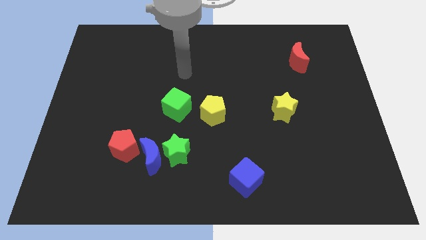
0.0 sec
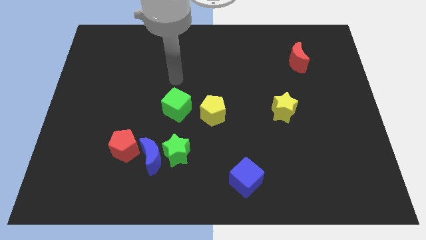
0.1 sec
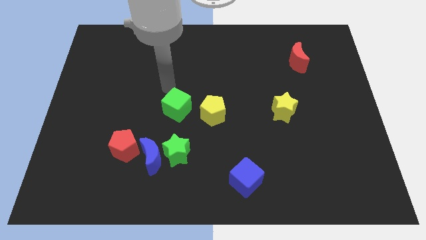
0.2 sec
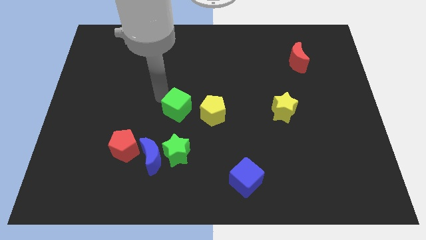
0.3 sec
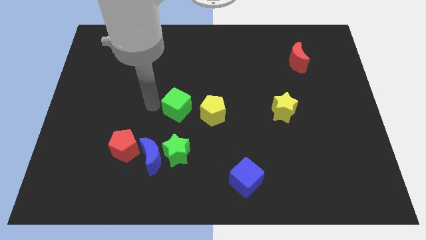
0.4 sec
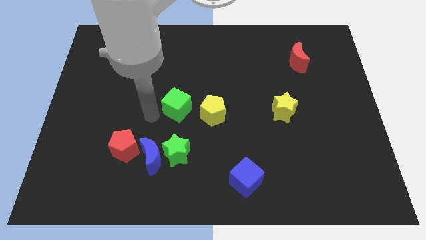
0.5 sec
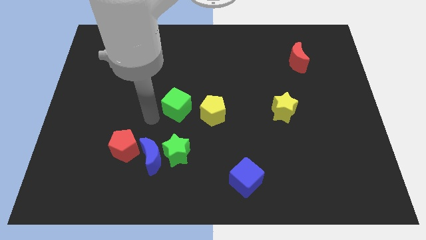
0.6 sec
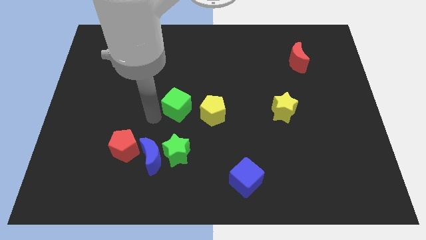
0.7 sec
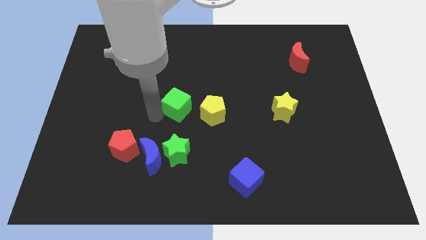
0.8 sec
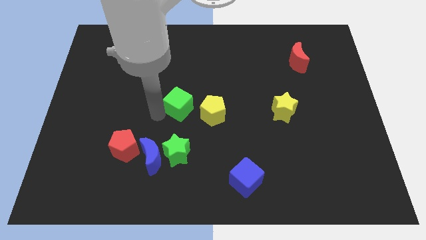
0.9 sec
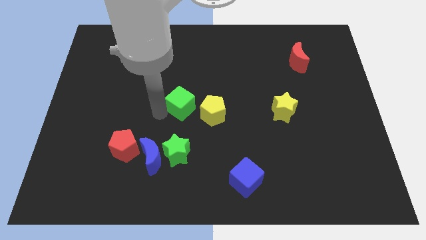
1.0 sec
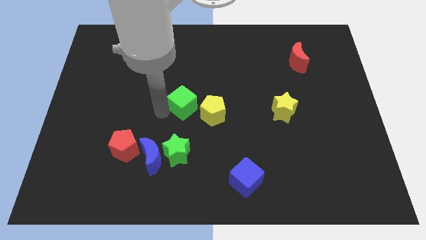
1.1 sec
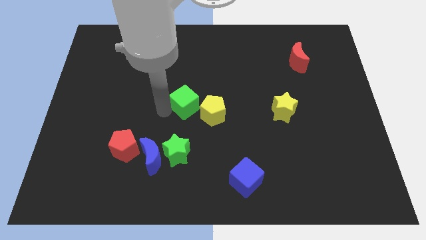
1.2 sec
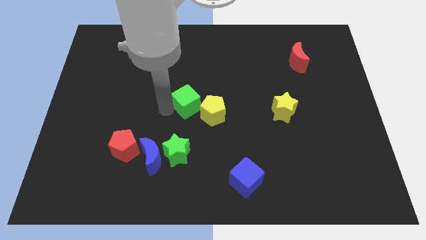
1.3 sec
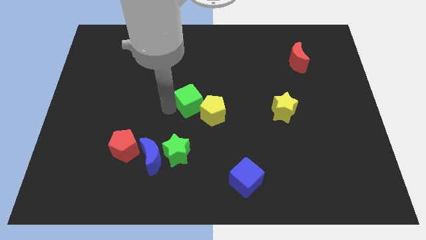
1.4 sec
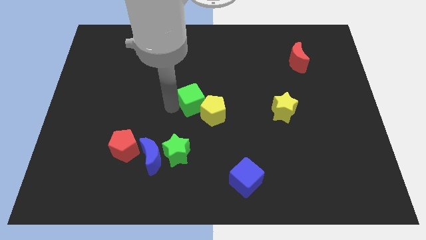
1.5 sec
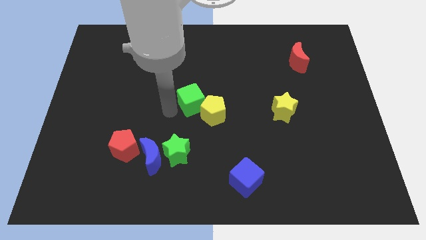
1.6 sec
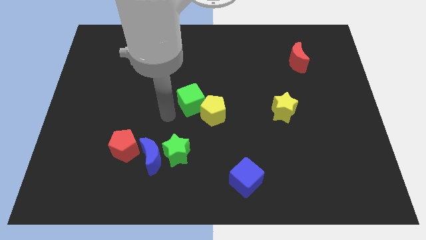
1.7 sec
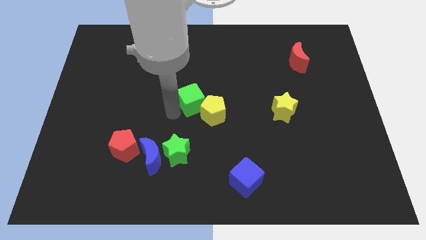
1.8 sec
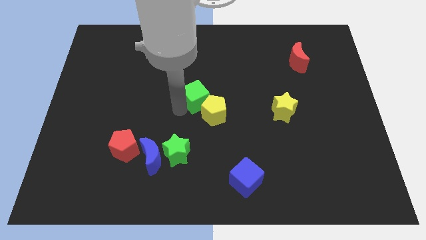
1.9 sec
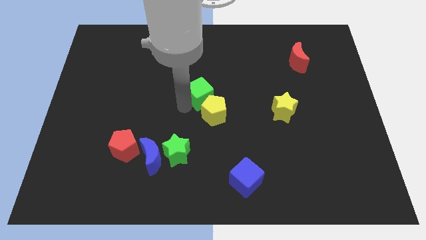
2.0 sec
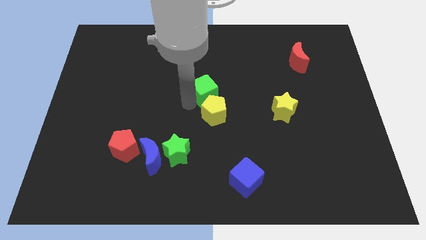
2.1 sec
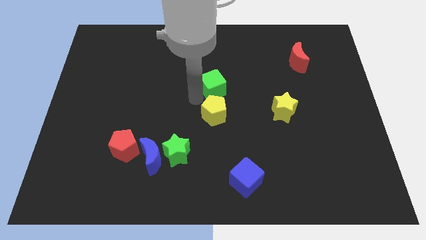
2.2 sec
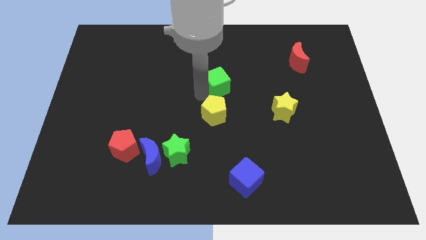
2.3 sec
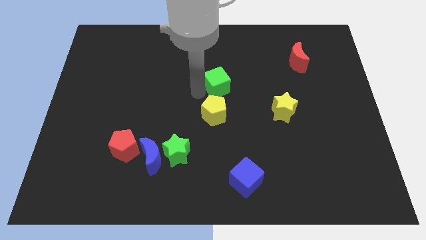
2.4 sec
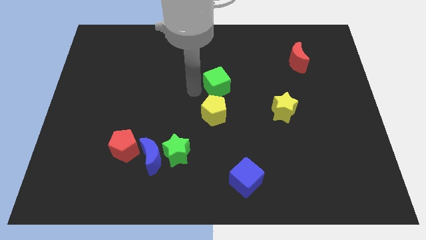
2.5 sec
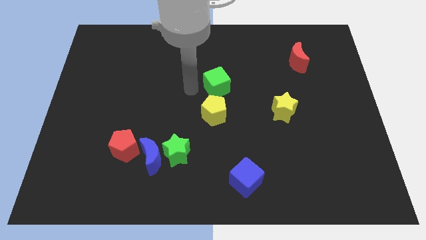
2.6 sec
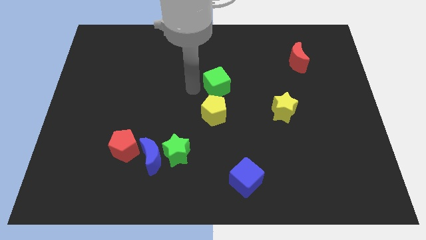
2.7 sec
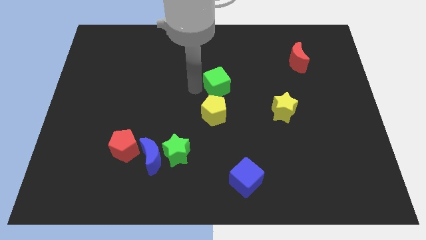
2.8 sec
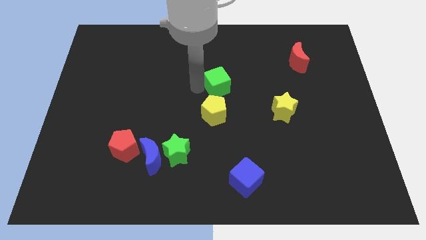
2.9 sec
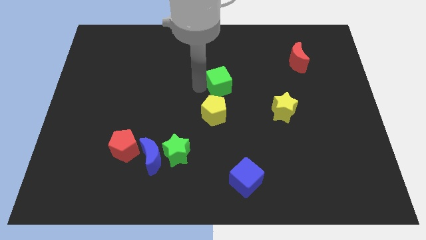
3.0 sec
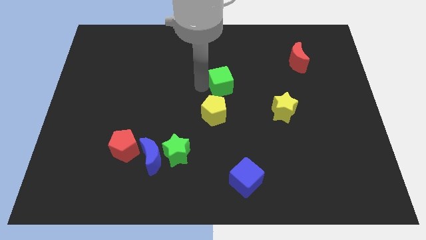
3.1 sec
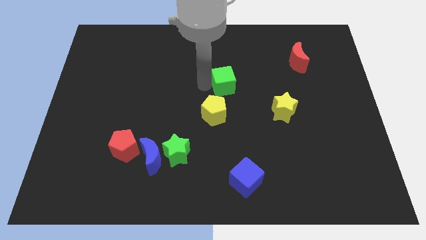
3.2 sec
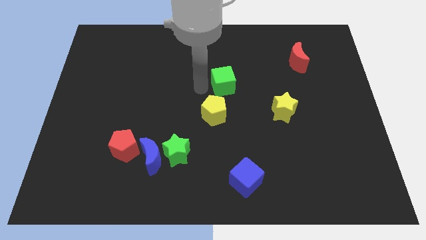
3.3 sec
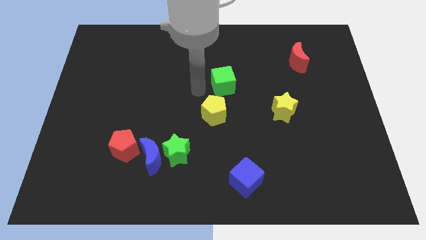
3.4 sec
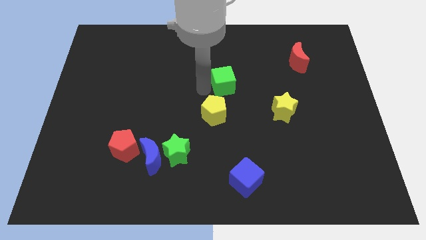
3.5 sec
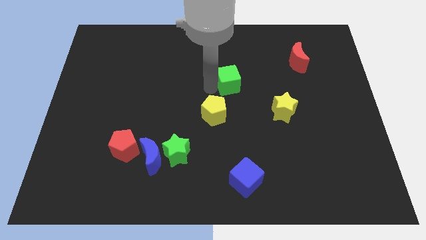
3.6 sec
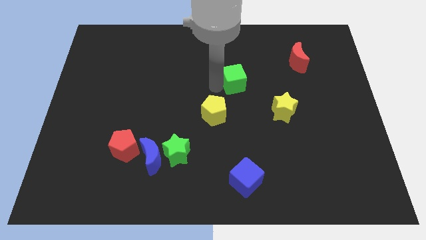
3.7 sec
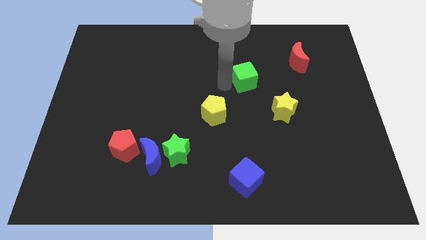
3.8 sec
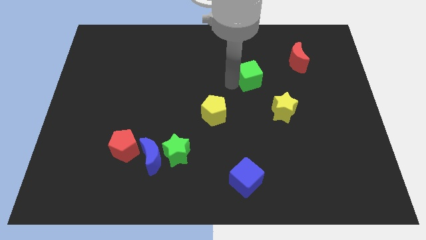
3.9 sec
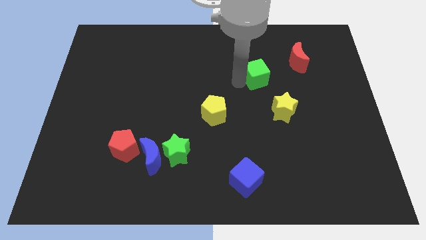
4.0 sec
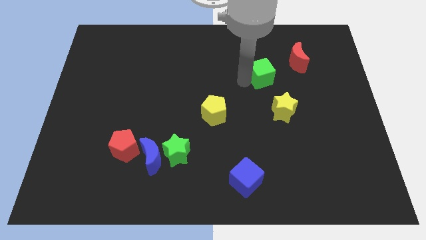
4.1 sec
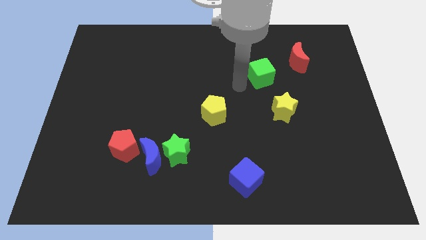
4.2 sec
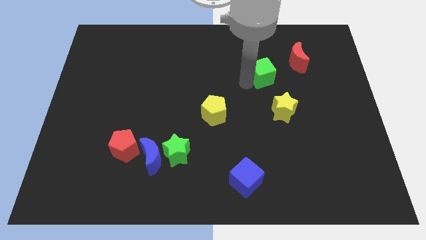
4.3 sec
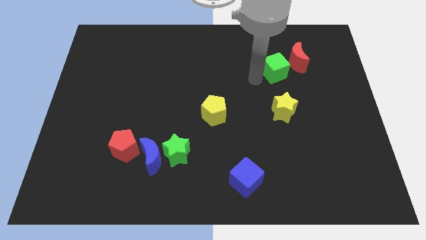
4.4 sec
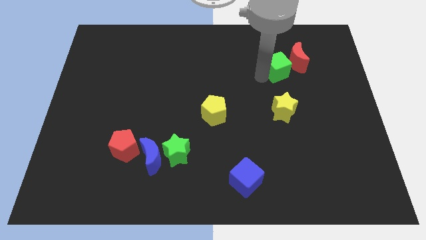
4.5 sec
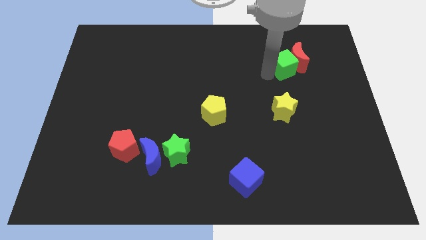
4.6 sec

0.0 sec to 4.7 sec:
slide the green cube next to the red moon

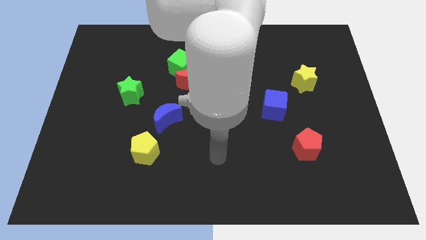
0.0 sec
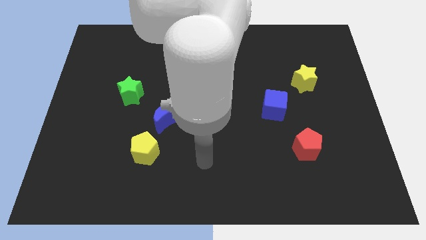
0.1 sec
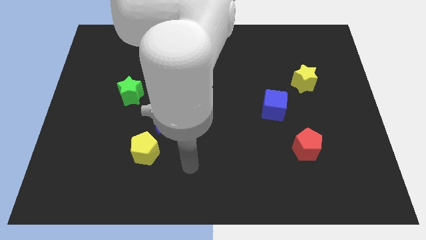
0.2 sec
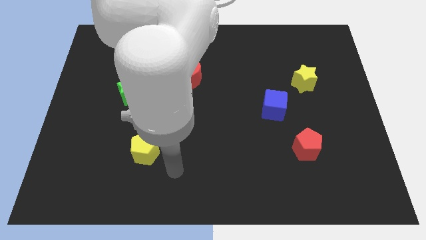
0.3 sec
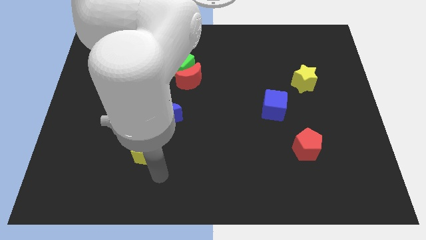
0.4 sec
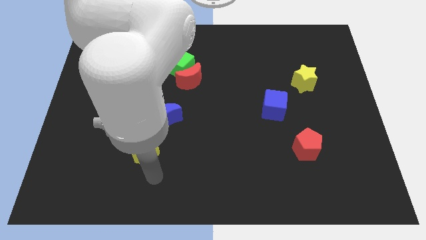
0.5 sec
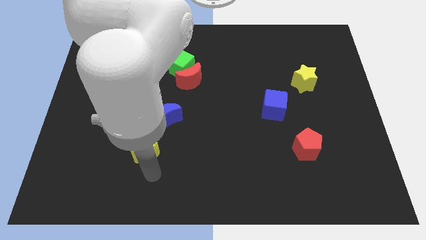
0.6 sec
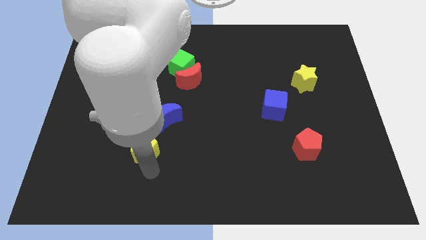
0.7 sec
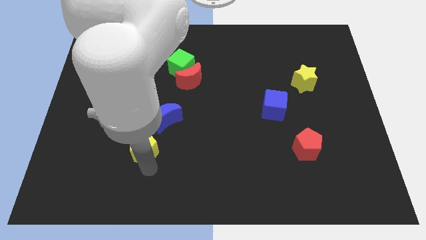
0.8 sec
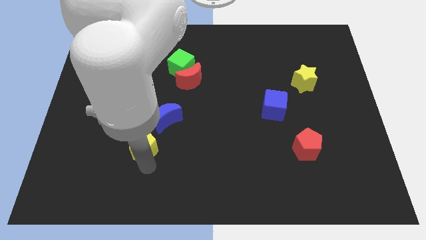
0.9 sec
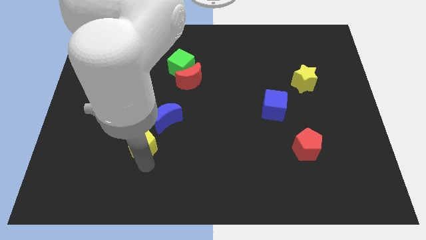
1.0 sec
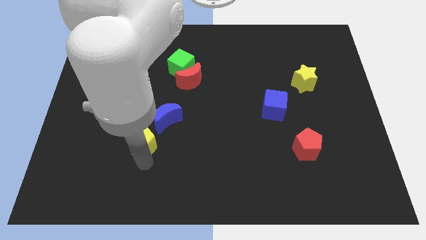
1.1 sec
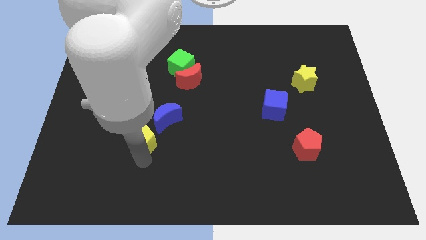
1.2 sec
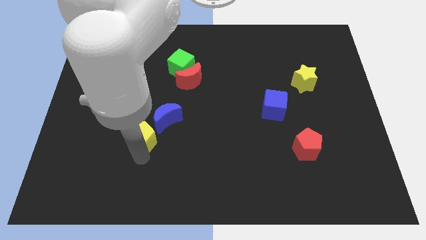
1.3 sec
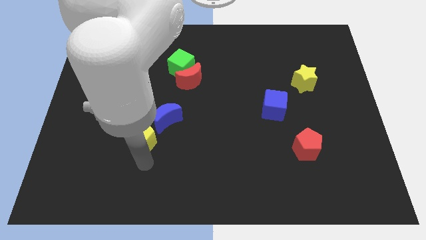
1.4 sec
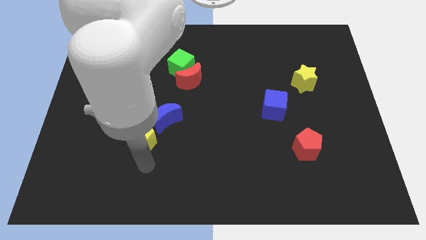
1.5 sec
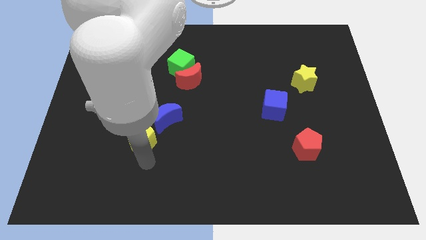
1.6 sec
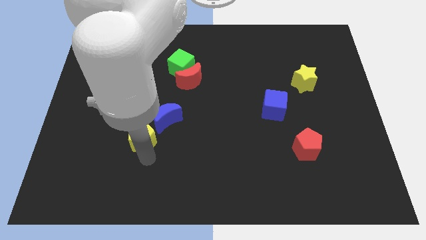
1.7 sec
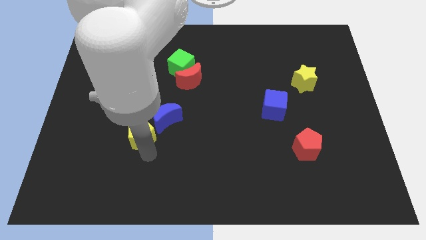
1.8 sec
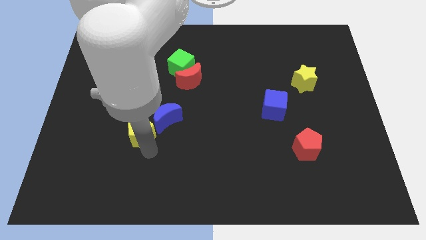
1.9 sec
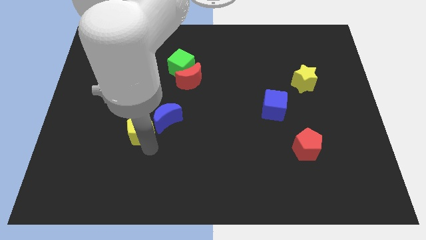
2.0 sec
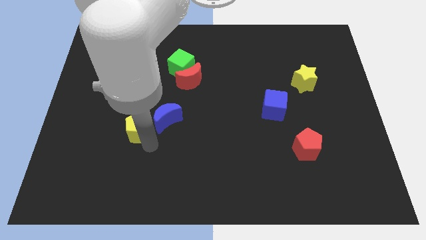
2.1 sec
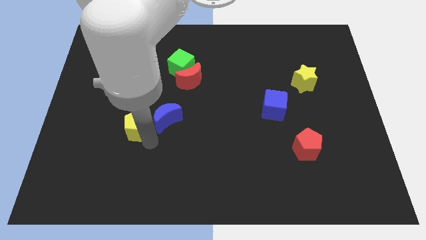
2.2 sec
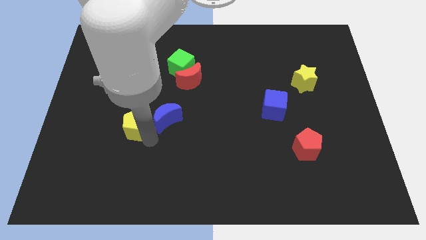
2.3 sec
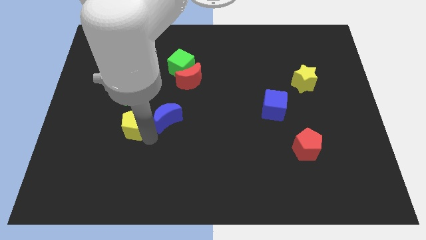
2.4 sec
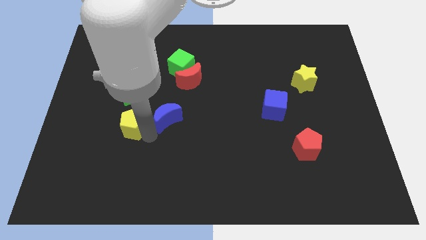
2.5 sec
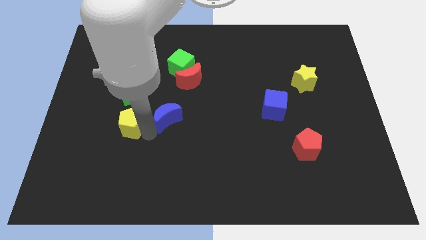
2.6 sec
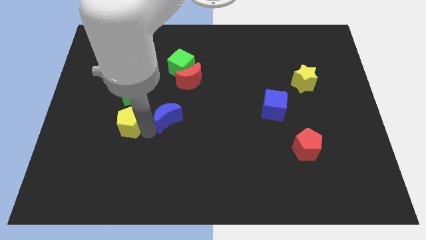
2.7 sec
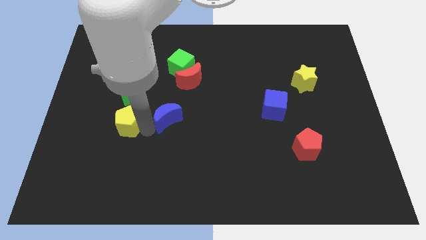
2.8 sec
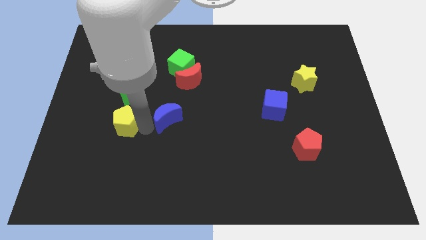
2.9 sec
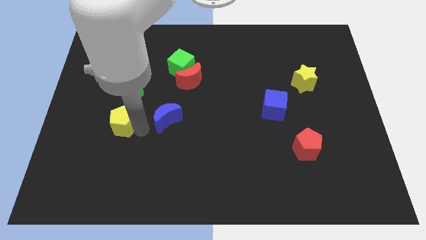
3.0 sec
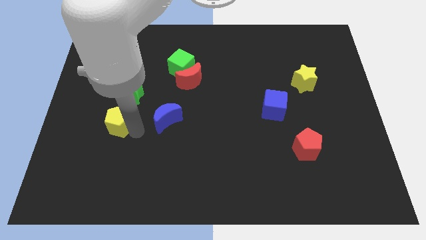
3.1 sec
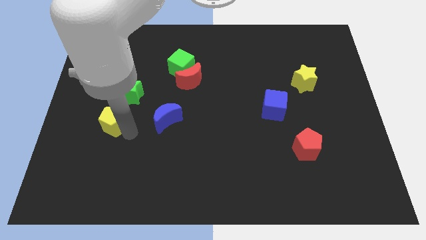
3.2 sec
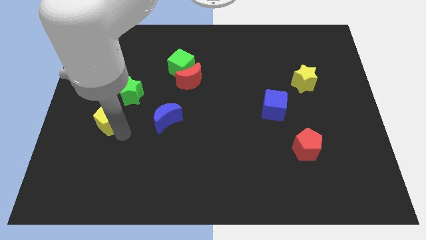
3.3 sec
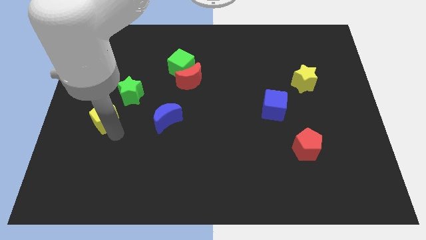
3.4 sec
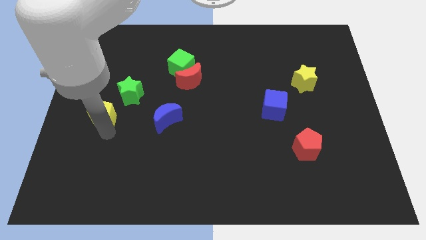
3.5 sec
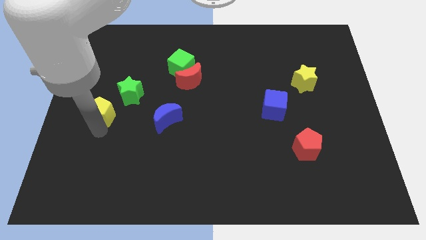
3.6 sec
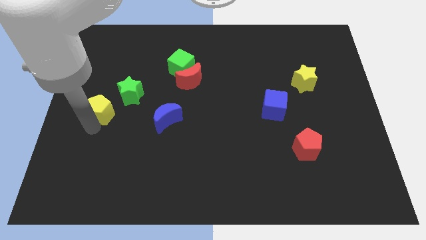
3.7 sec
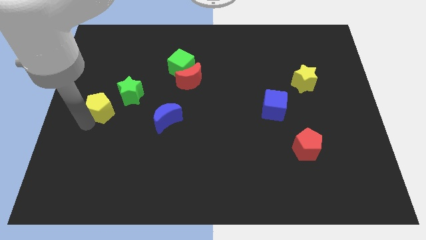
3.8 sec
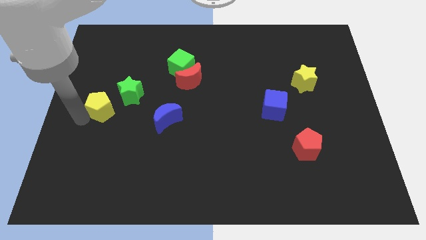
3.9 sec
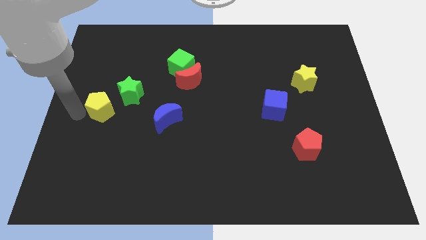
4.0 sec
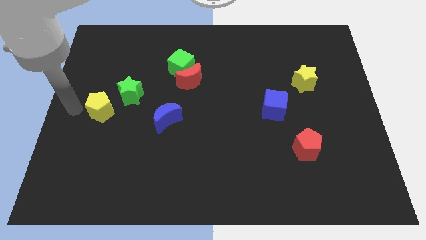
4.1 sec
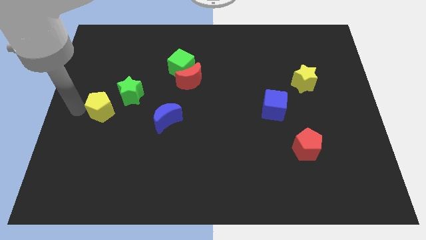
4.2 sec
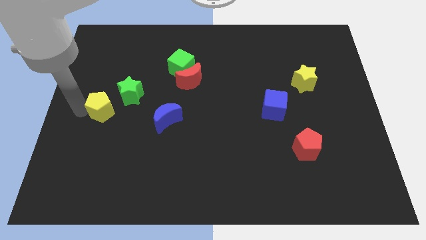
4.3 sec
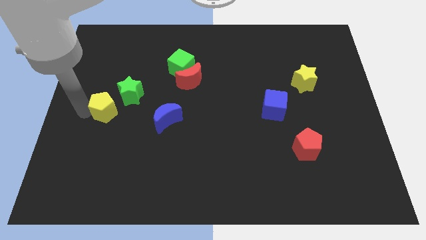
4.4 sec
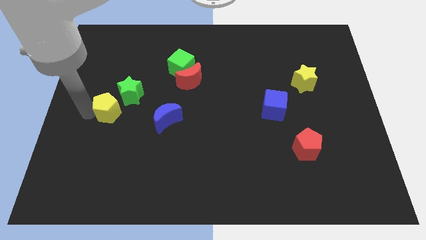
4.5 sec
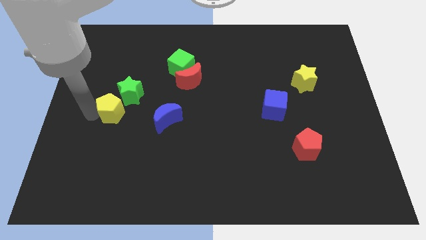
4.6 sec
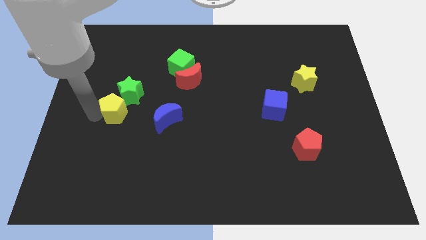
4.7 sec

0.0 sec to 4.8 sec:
move the yellow pentagon close to the green star
